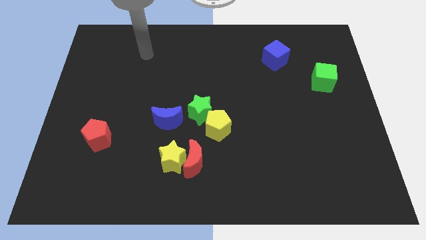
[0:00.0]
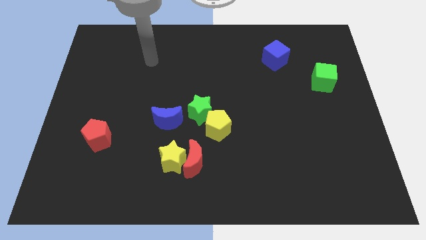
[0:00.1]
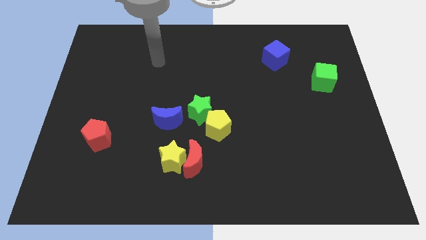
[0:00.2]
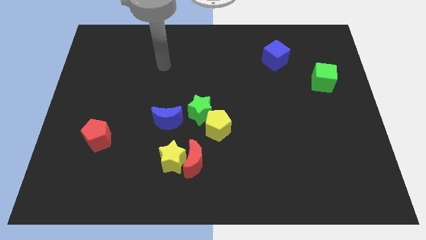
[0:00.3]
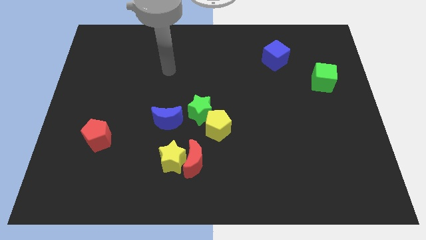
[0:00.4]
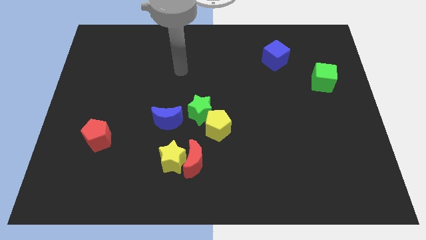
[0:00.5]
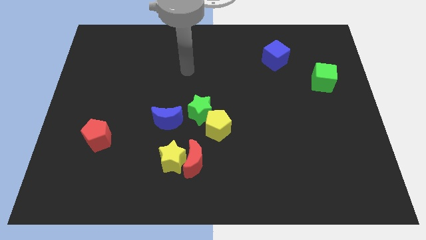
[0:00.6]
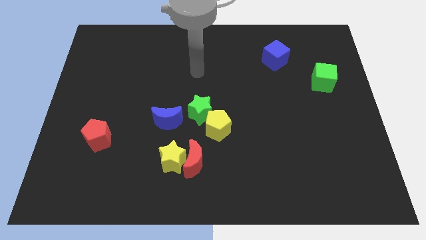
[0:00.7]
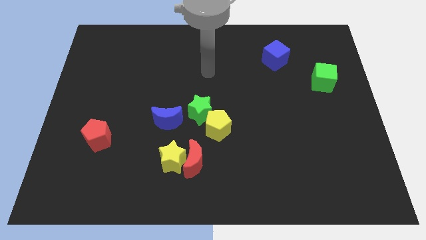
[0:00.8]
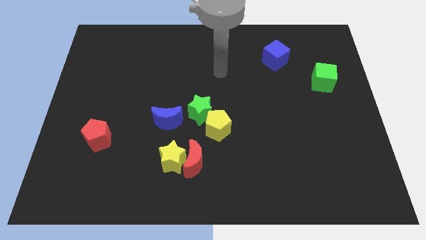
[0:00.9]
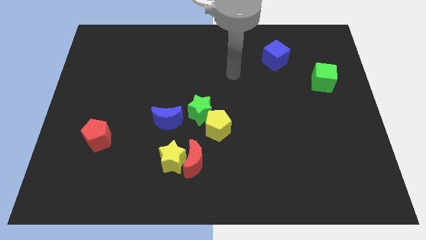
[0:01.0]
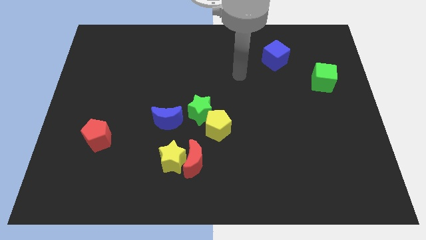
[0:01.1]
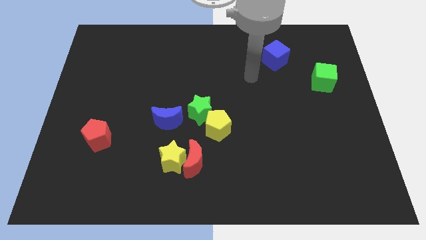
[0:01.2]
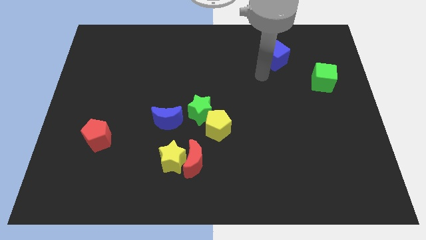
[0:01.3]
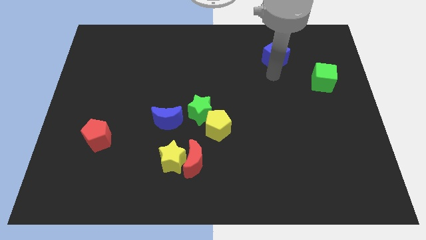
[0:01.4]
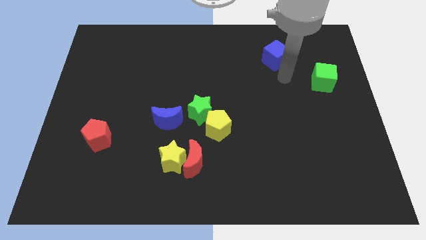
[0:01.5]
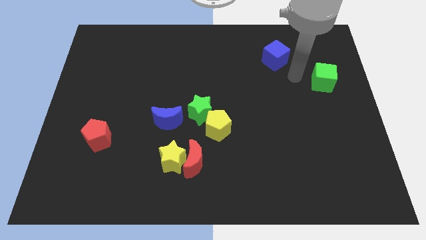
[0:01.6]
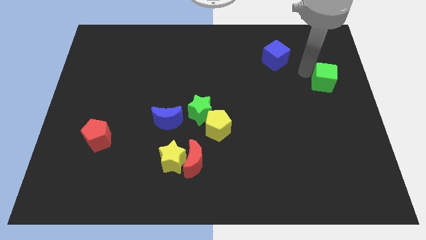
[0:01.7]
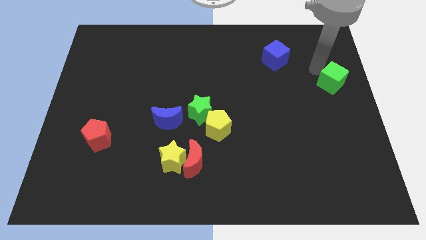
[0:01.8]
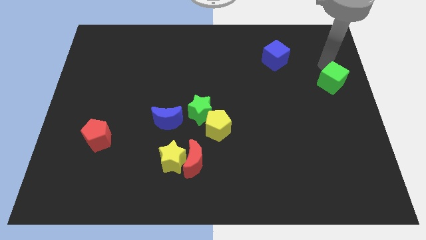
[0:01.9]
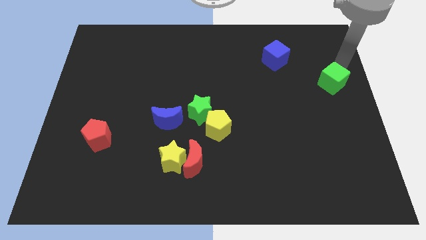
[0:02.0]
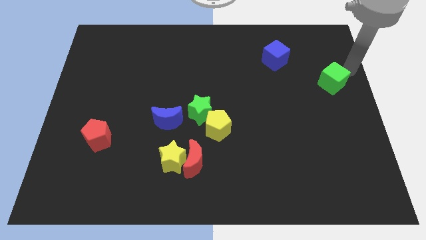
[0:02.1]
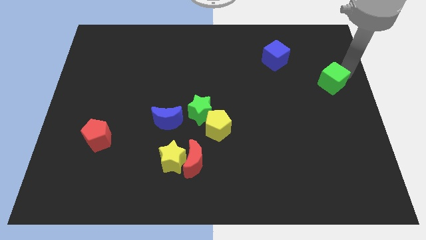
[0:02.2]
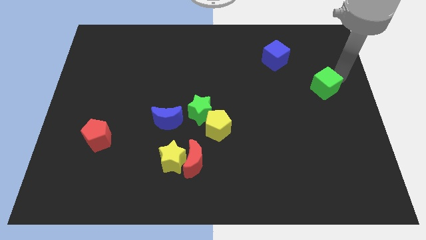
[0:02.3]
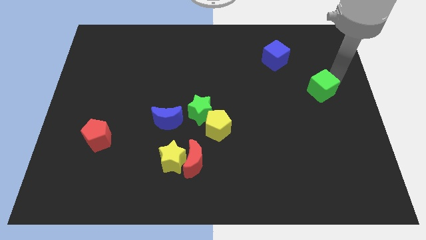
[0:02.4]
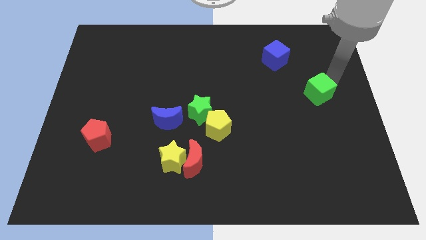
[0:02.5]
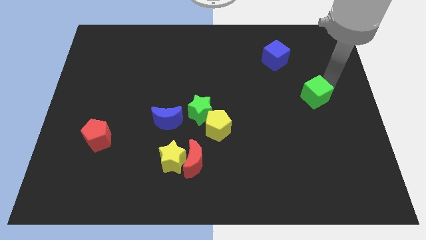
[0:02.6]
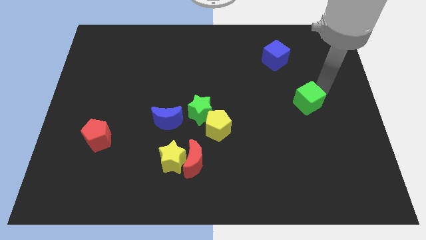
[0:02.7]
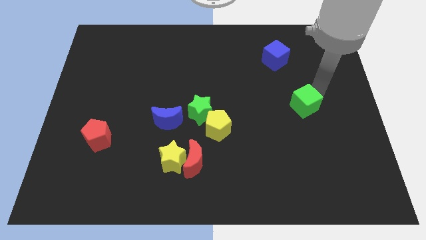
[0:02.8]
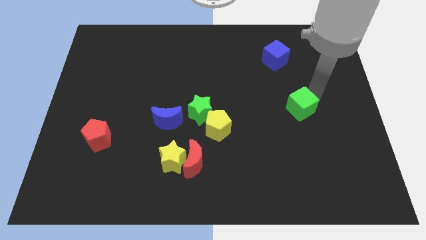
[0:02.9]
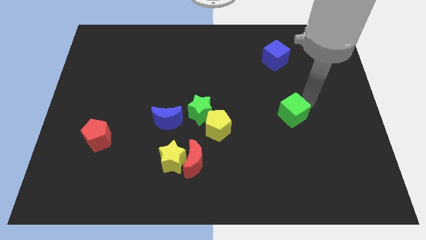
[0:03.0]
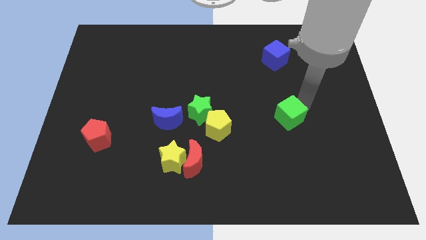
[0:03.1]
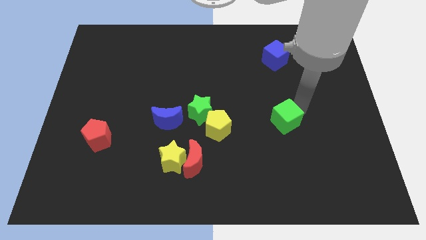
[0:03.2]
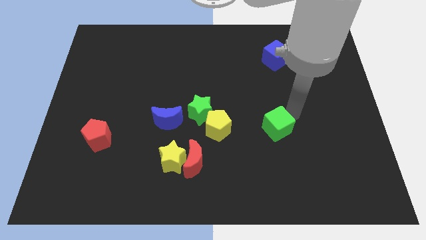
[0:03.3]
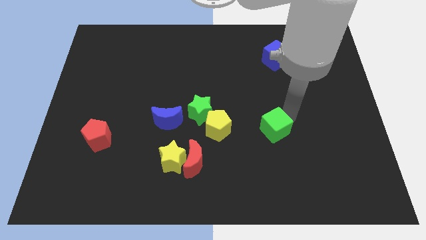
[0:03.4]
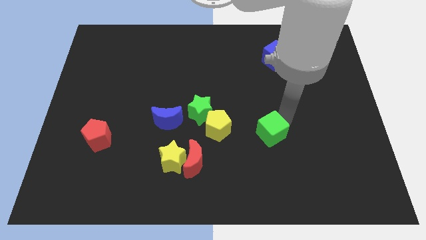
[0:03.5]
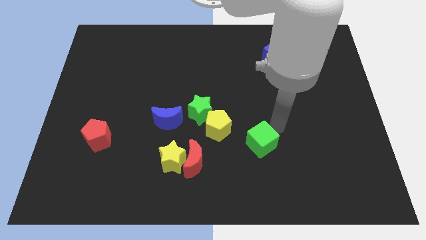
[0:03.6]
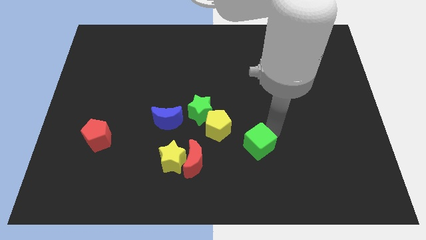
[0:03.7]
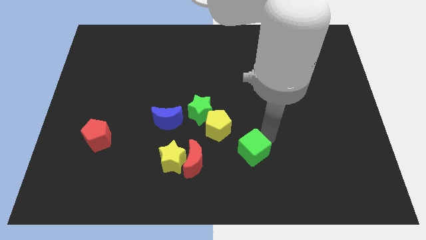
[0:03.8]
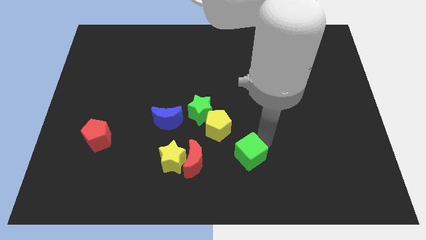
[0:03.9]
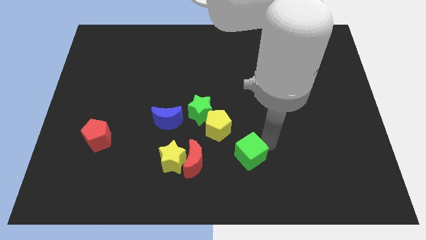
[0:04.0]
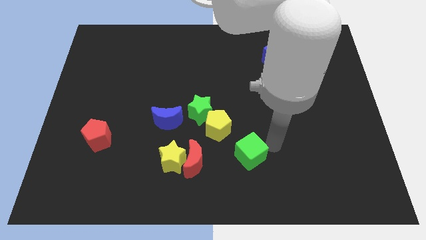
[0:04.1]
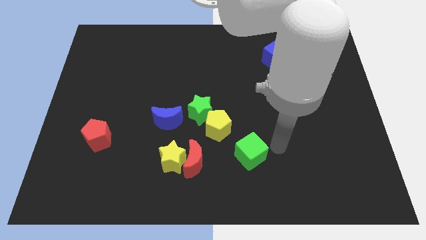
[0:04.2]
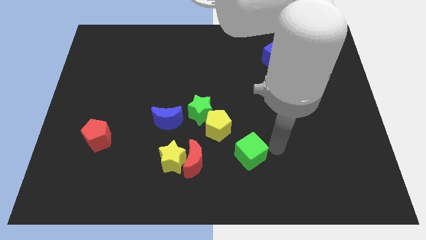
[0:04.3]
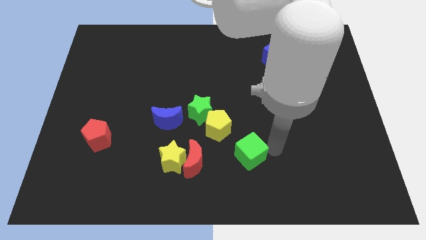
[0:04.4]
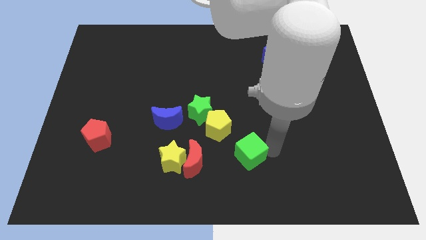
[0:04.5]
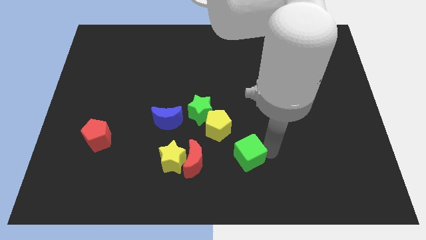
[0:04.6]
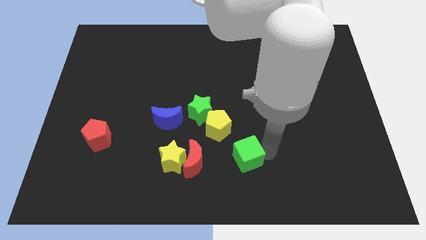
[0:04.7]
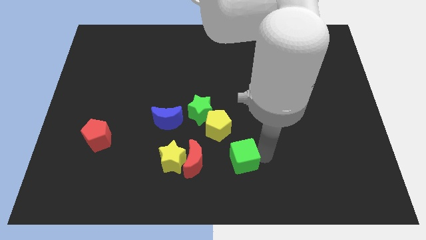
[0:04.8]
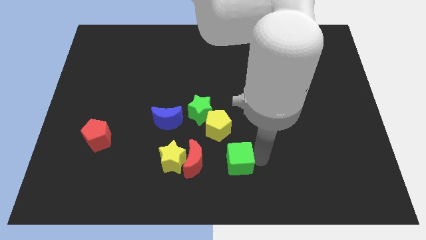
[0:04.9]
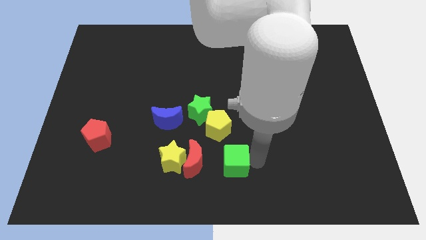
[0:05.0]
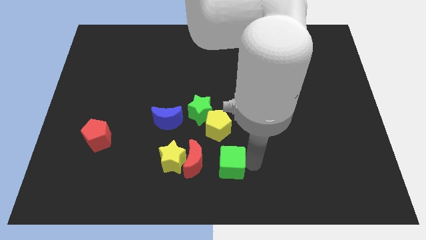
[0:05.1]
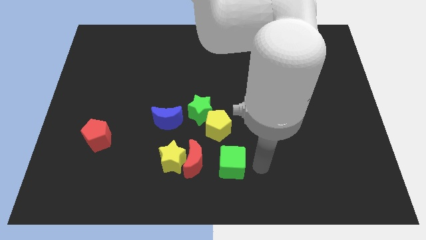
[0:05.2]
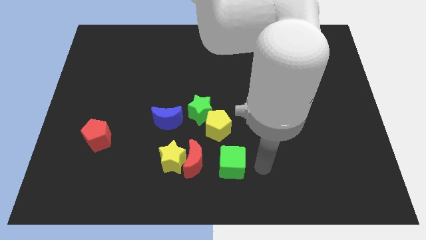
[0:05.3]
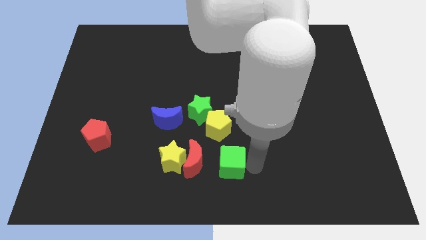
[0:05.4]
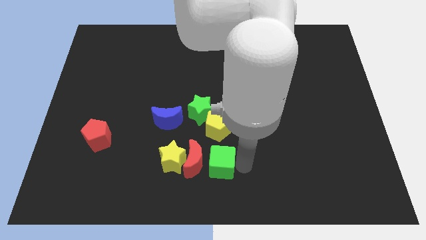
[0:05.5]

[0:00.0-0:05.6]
move the green cube close to the red moon

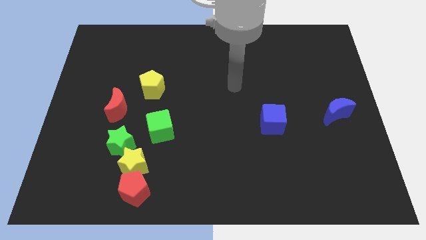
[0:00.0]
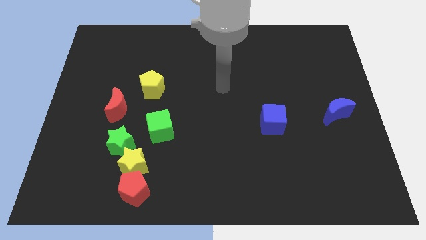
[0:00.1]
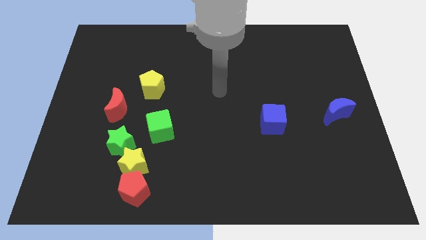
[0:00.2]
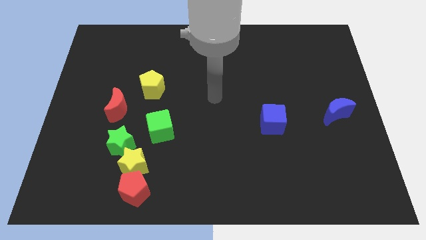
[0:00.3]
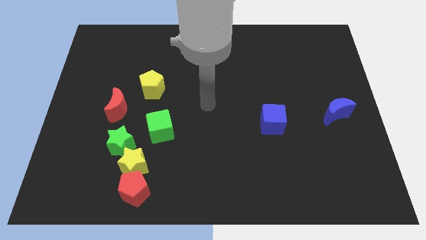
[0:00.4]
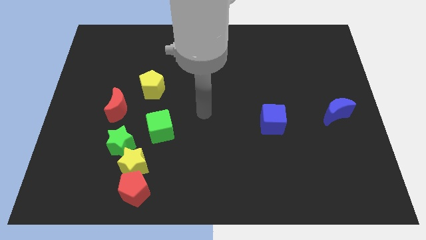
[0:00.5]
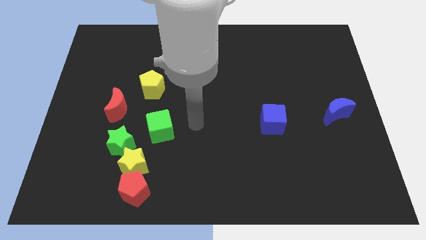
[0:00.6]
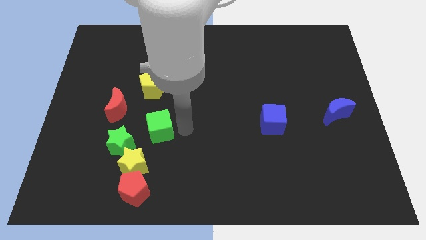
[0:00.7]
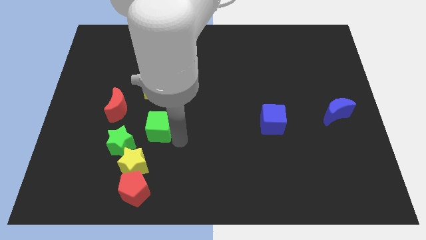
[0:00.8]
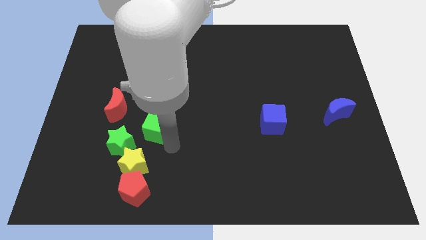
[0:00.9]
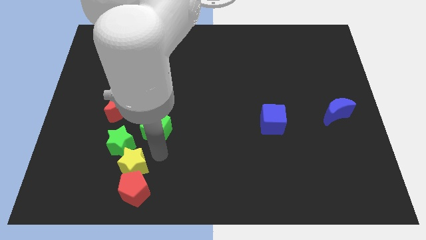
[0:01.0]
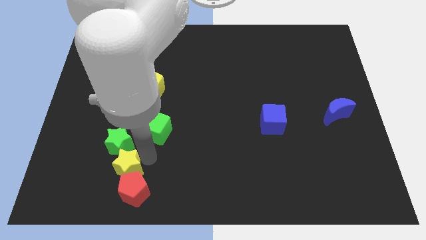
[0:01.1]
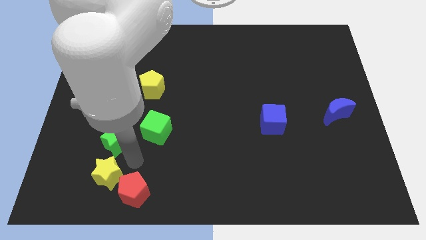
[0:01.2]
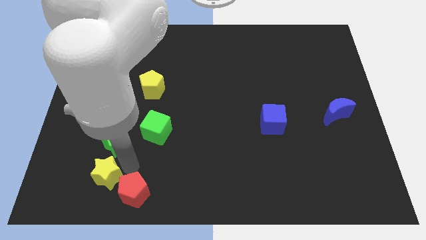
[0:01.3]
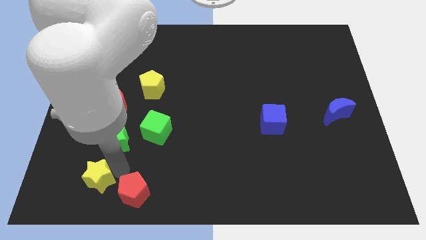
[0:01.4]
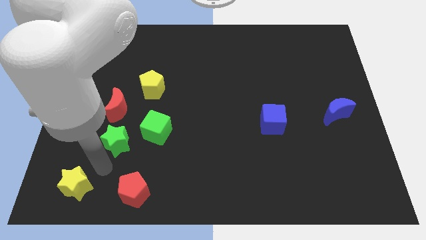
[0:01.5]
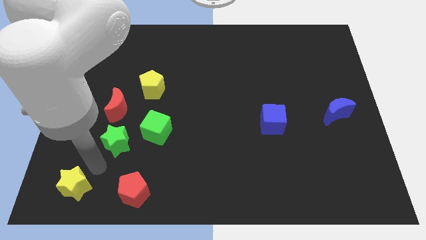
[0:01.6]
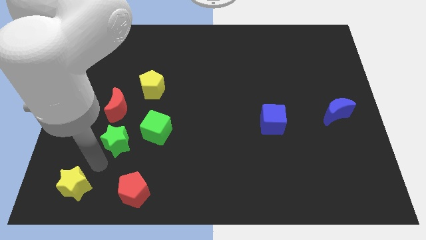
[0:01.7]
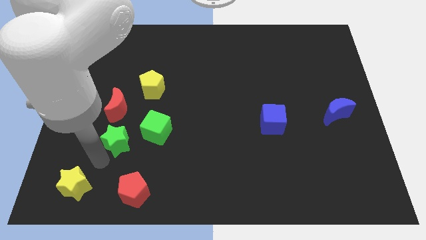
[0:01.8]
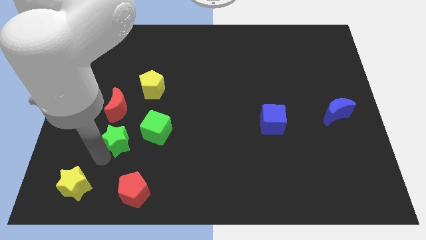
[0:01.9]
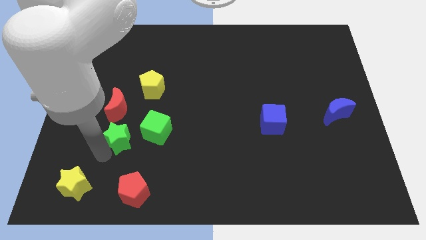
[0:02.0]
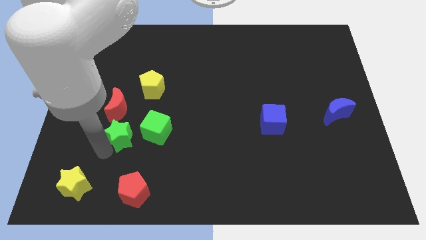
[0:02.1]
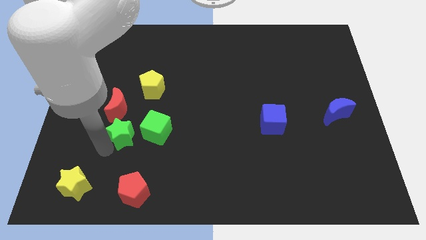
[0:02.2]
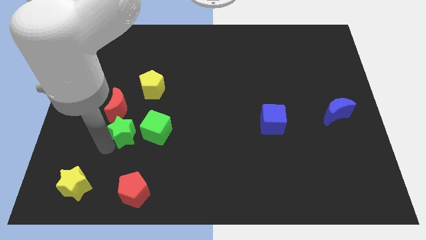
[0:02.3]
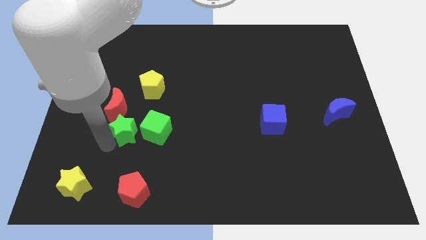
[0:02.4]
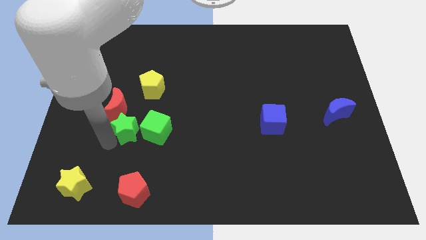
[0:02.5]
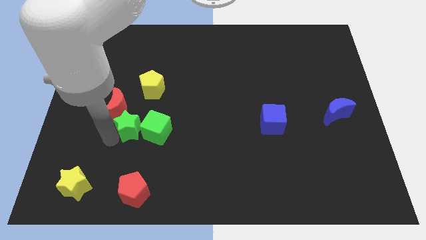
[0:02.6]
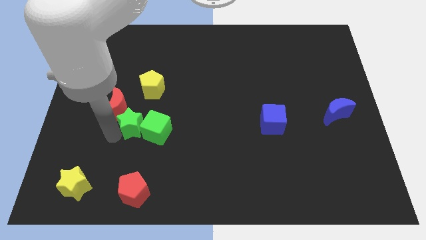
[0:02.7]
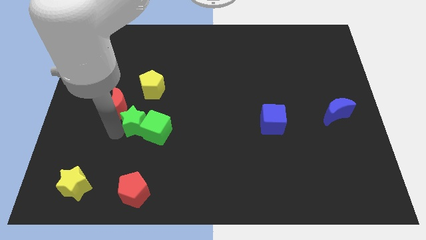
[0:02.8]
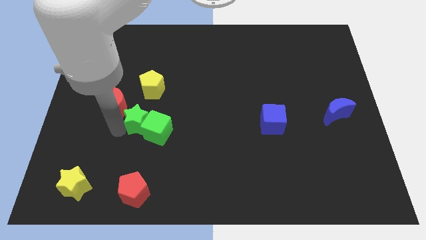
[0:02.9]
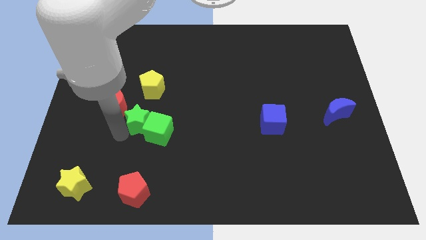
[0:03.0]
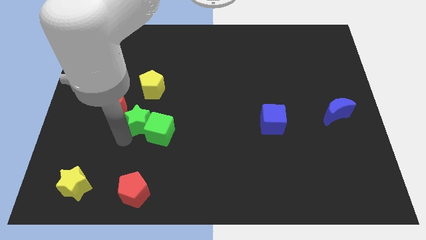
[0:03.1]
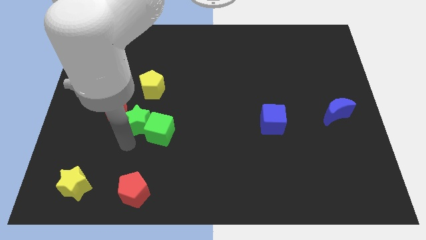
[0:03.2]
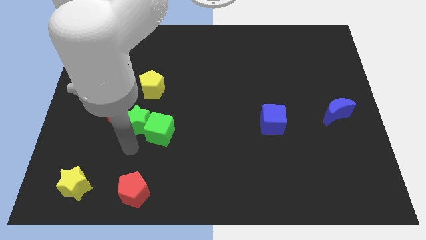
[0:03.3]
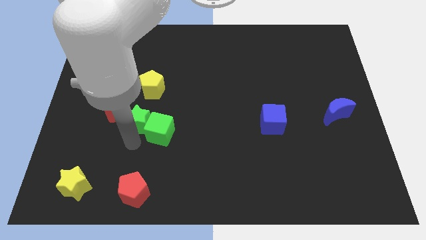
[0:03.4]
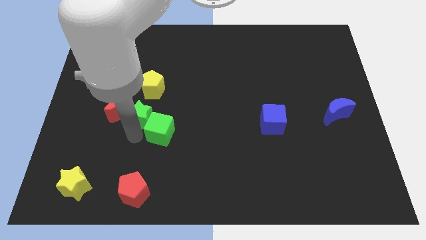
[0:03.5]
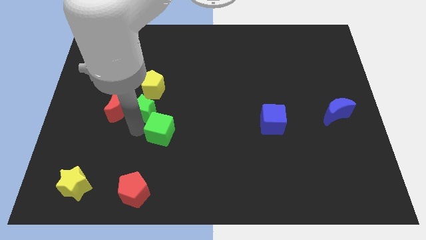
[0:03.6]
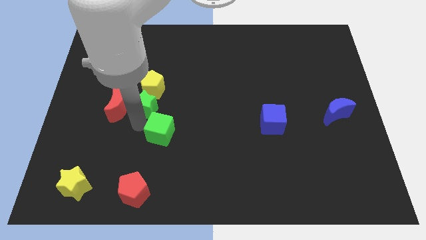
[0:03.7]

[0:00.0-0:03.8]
move the green star next to the yellow pentagon
